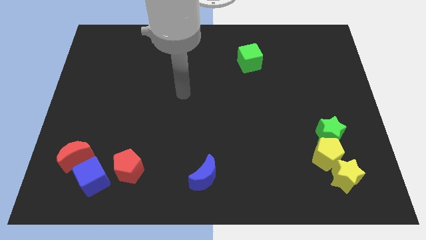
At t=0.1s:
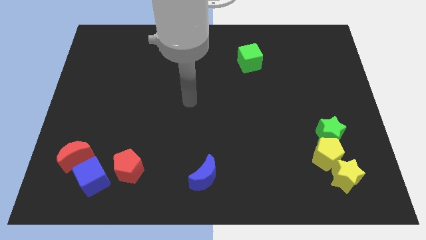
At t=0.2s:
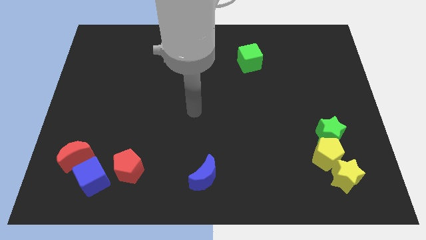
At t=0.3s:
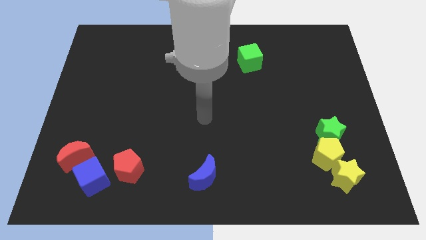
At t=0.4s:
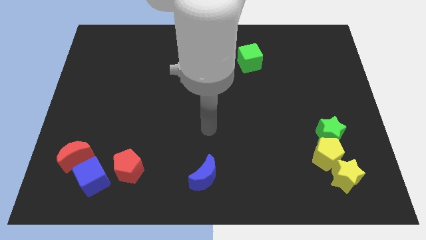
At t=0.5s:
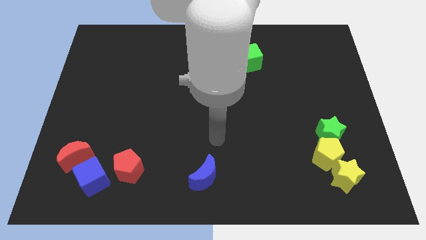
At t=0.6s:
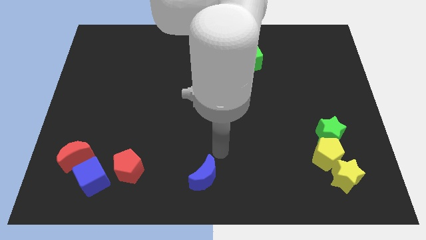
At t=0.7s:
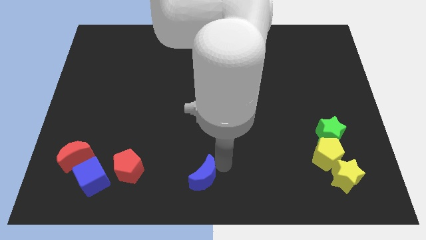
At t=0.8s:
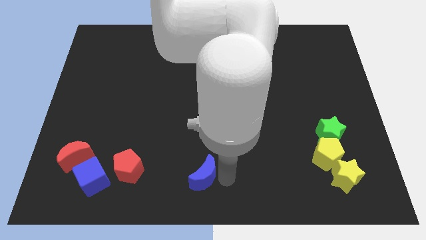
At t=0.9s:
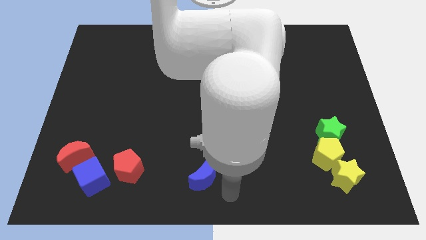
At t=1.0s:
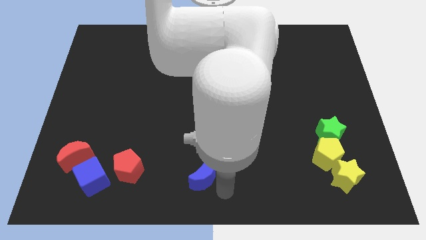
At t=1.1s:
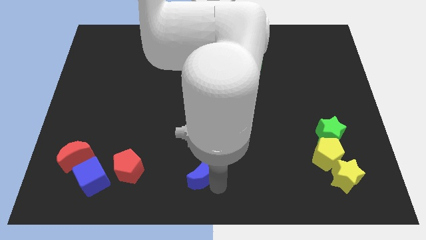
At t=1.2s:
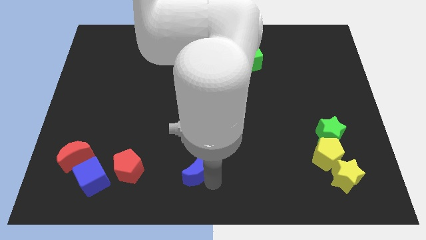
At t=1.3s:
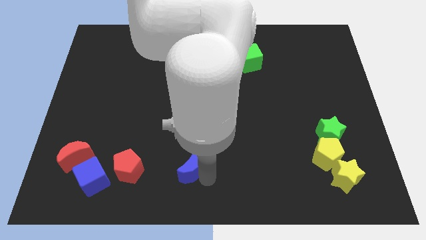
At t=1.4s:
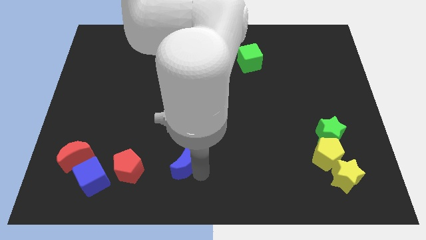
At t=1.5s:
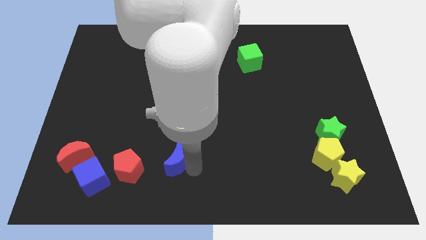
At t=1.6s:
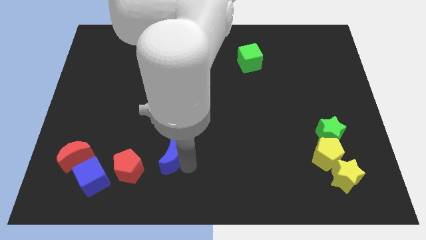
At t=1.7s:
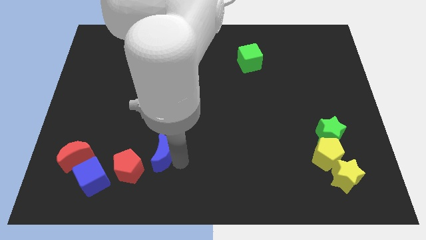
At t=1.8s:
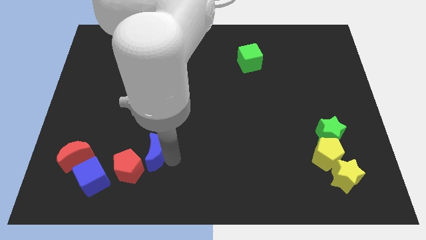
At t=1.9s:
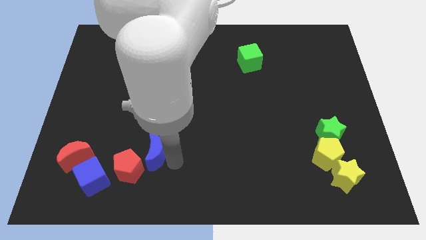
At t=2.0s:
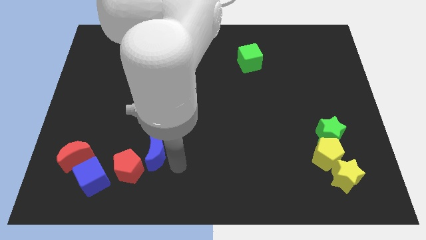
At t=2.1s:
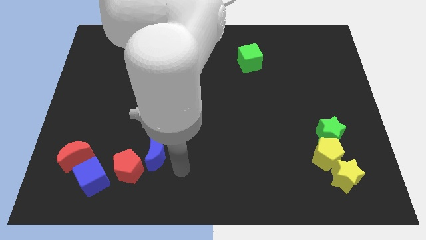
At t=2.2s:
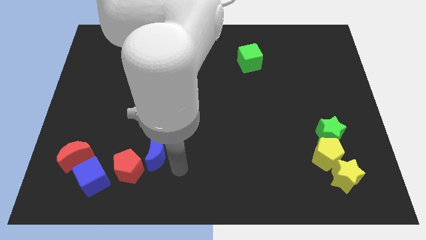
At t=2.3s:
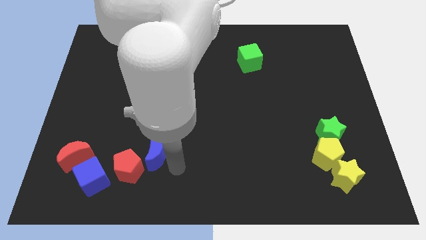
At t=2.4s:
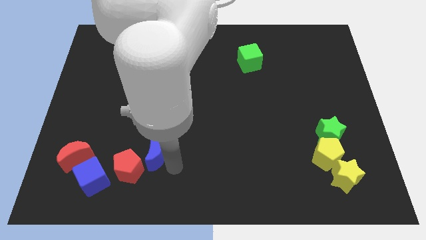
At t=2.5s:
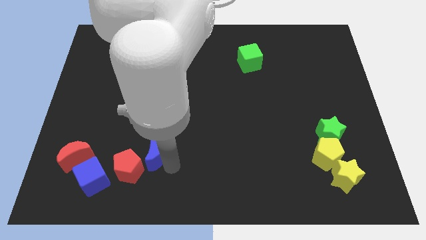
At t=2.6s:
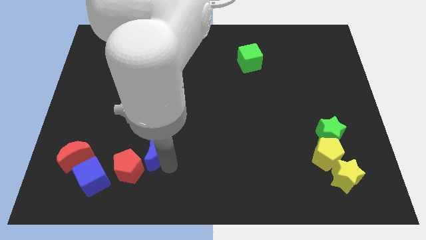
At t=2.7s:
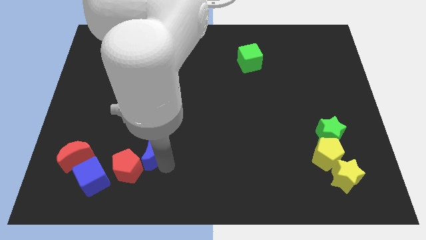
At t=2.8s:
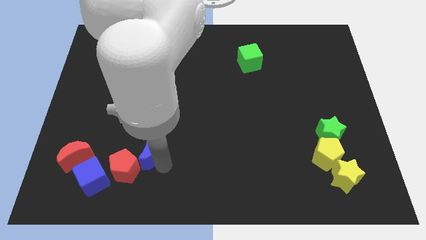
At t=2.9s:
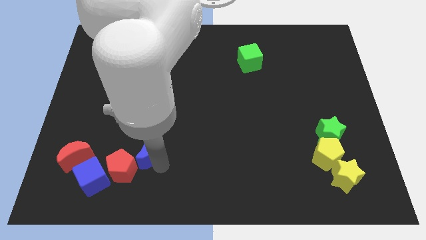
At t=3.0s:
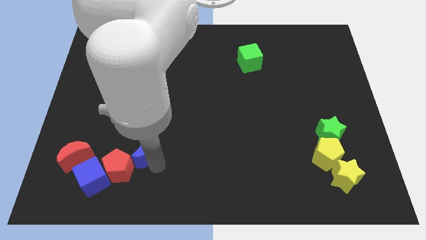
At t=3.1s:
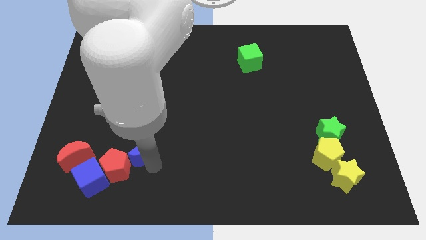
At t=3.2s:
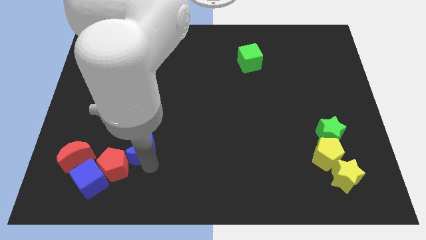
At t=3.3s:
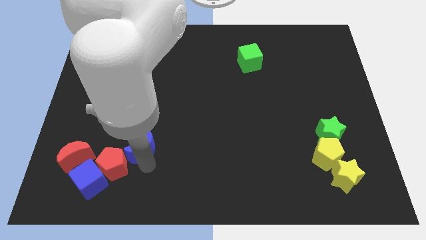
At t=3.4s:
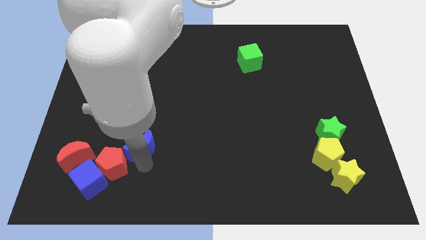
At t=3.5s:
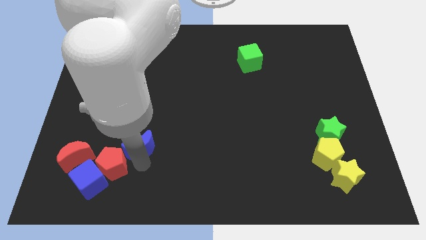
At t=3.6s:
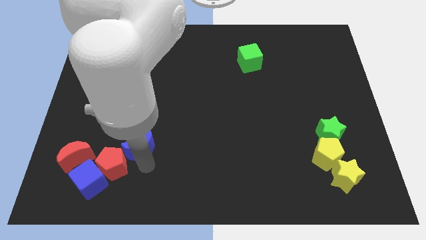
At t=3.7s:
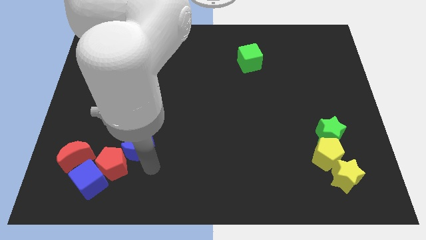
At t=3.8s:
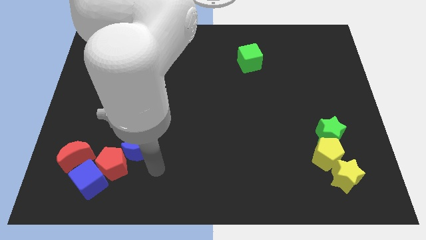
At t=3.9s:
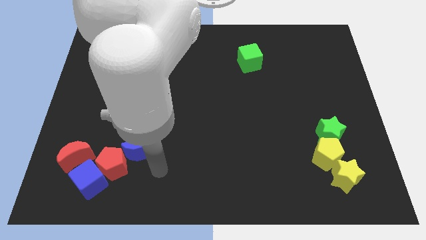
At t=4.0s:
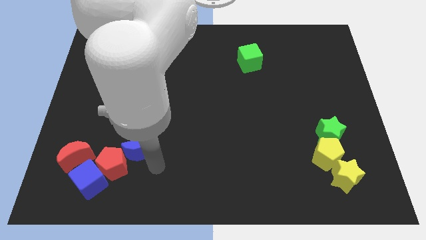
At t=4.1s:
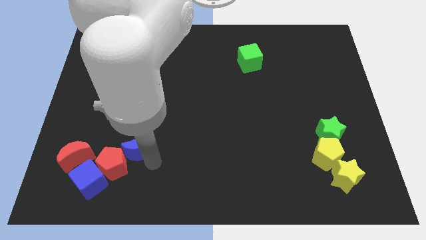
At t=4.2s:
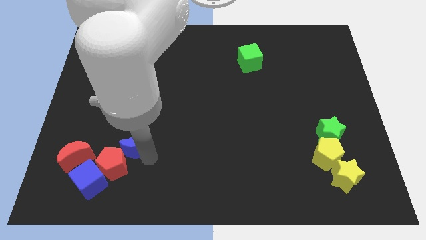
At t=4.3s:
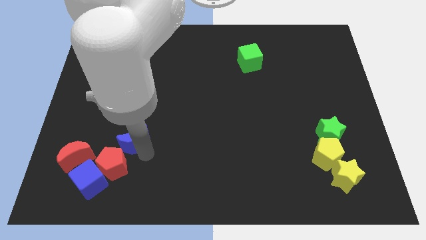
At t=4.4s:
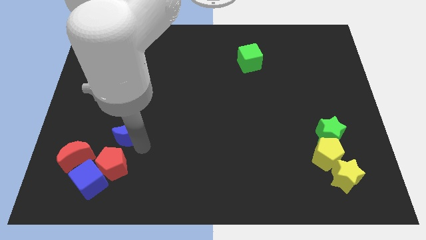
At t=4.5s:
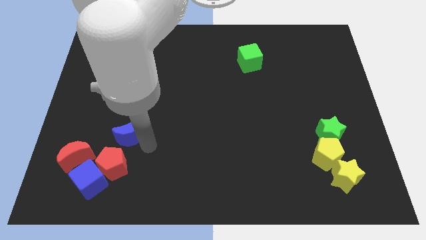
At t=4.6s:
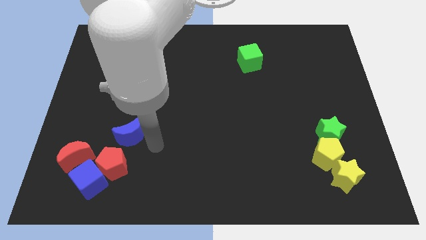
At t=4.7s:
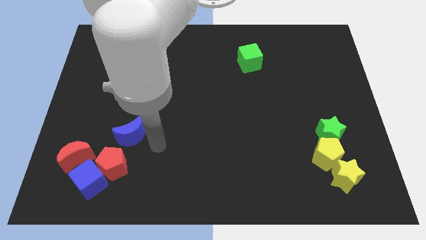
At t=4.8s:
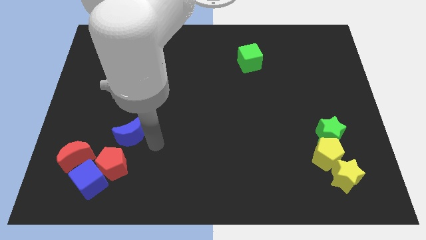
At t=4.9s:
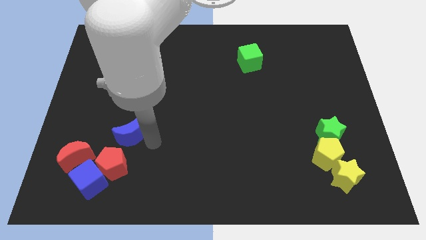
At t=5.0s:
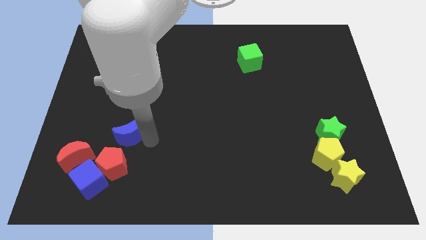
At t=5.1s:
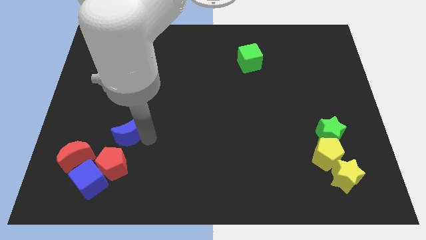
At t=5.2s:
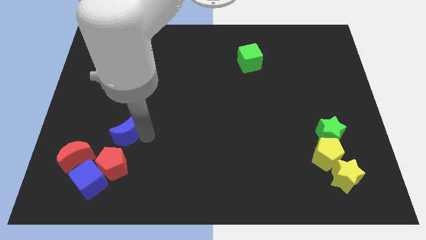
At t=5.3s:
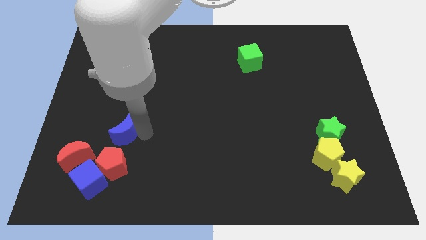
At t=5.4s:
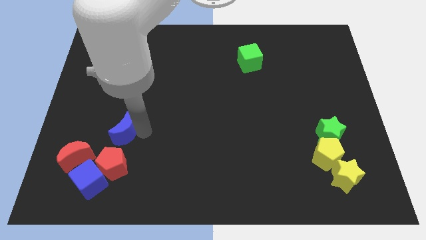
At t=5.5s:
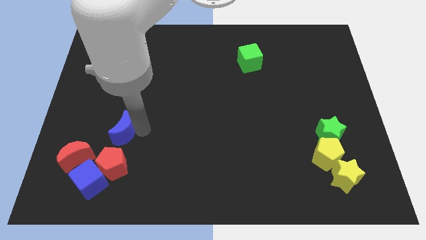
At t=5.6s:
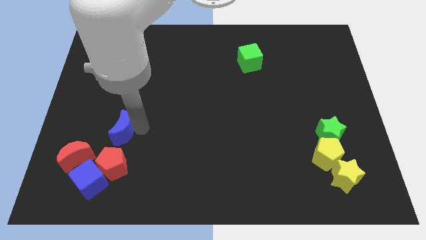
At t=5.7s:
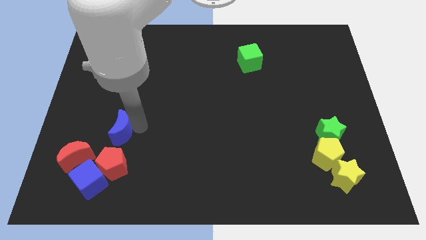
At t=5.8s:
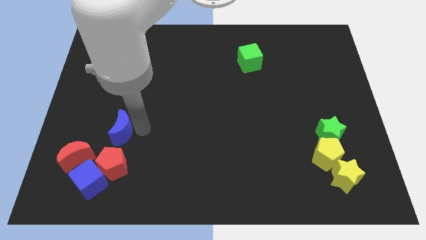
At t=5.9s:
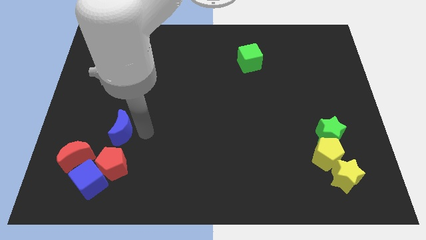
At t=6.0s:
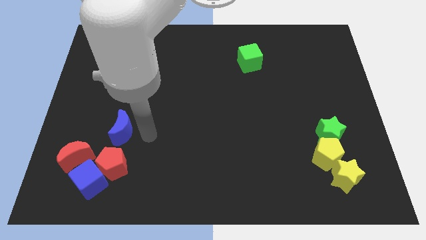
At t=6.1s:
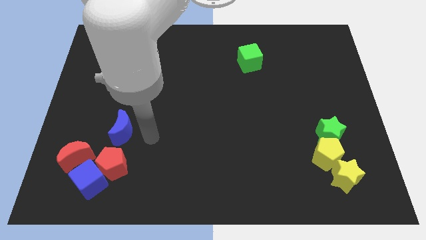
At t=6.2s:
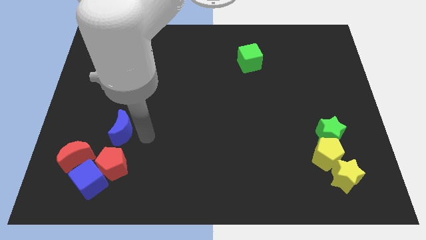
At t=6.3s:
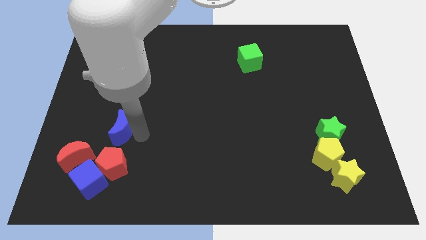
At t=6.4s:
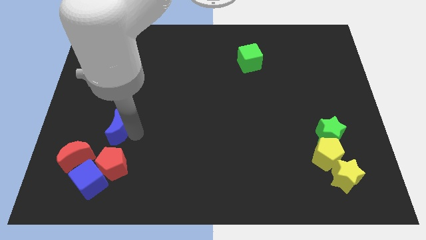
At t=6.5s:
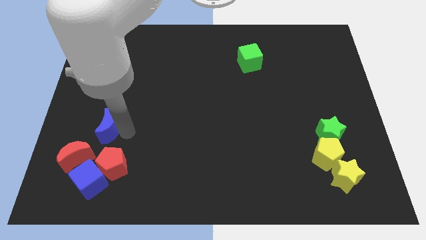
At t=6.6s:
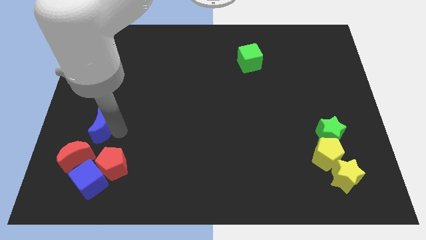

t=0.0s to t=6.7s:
put the blue moon to the top side of the red moon
